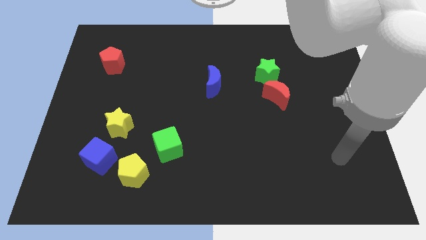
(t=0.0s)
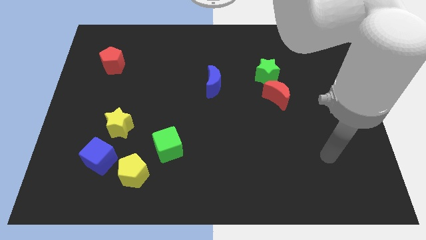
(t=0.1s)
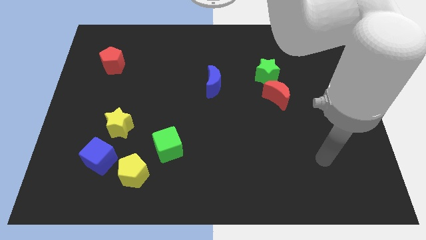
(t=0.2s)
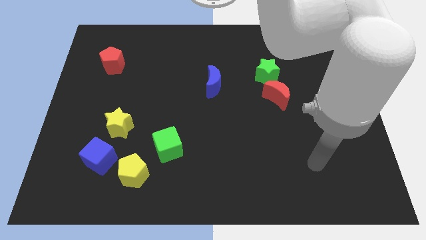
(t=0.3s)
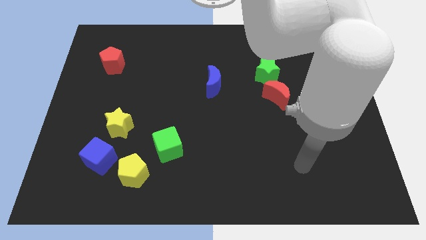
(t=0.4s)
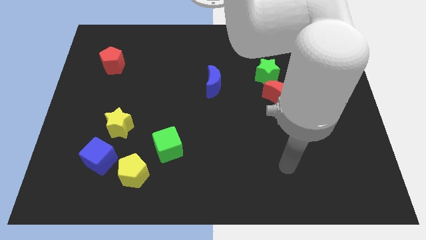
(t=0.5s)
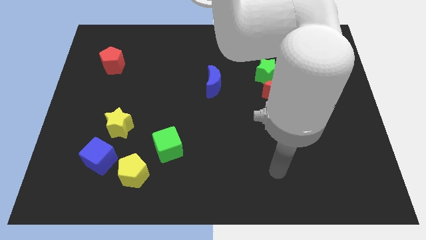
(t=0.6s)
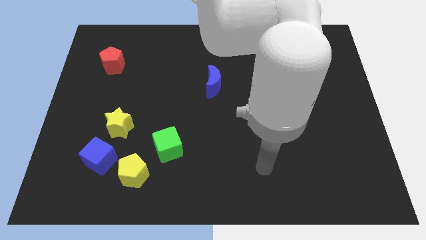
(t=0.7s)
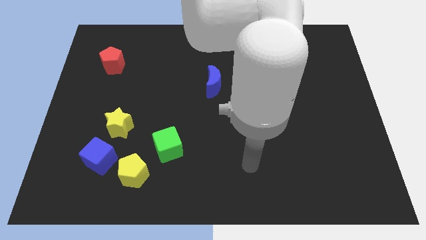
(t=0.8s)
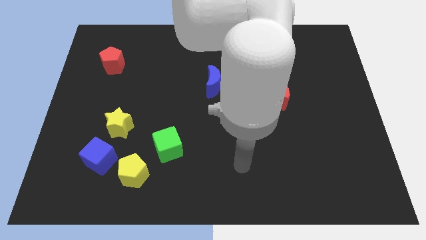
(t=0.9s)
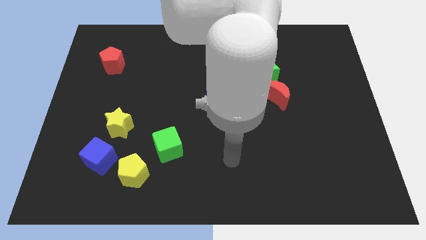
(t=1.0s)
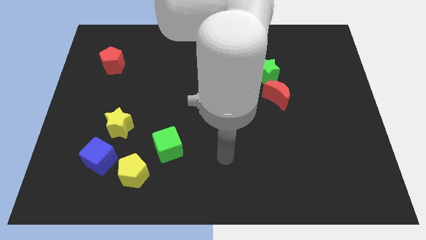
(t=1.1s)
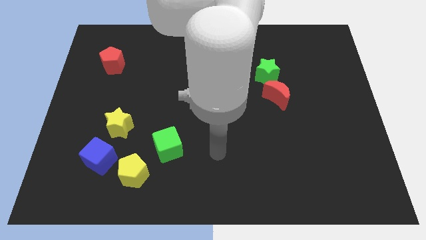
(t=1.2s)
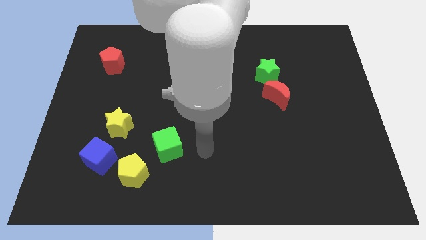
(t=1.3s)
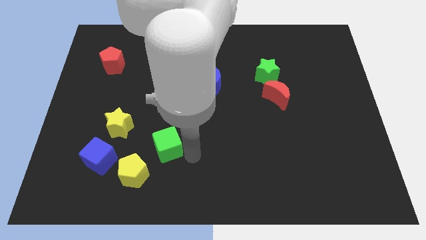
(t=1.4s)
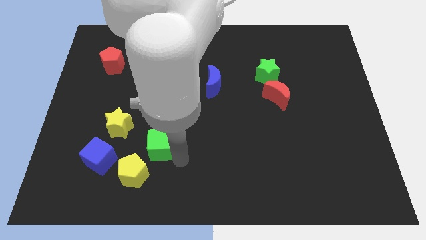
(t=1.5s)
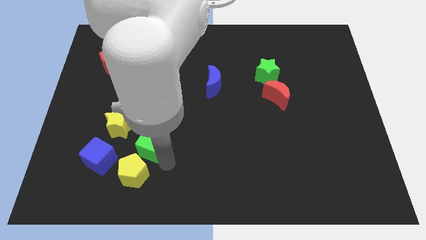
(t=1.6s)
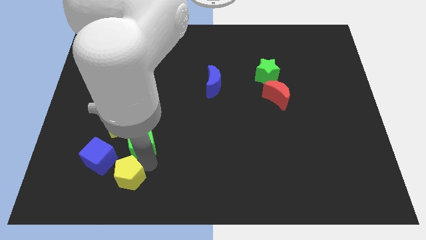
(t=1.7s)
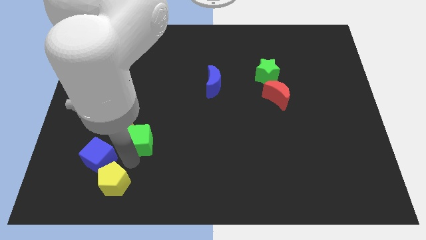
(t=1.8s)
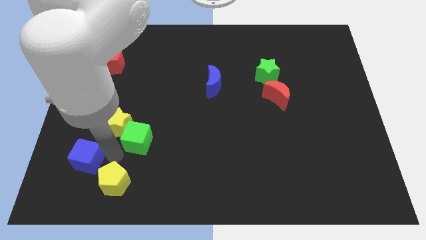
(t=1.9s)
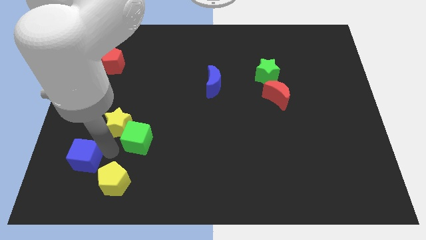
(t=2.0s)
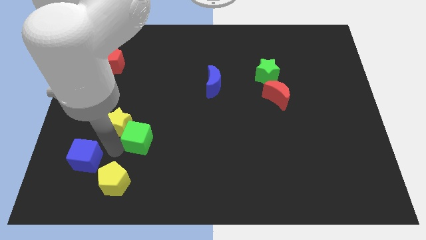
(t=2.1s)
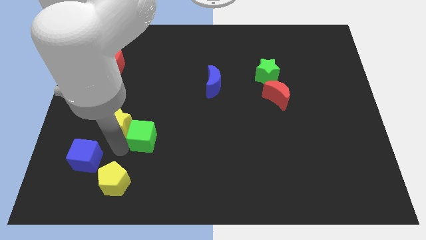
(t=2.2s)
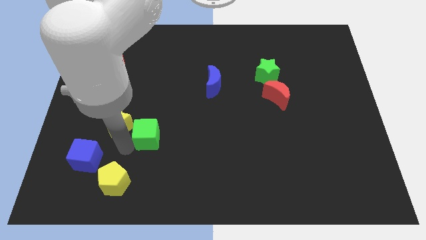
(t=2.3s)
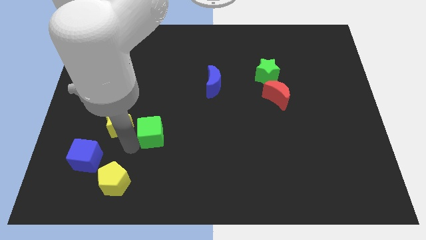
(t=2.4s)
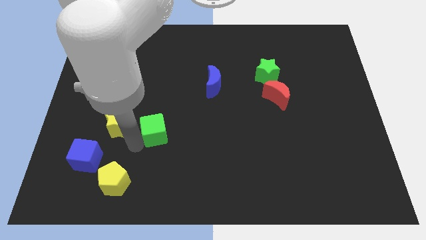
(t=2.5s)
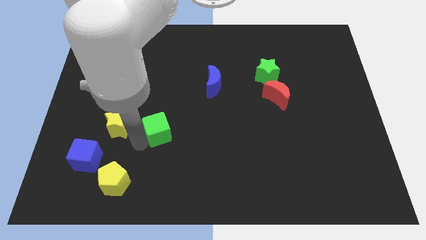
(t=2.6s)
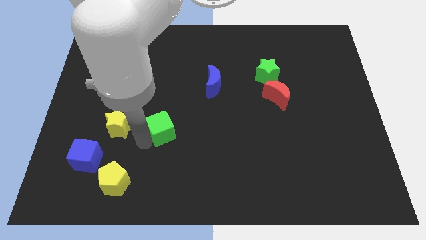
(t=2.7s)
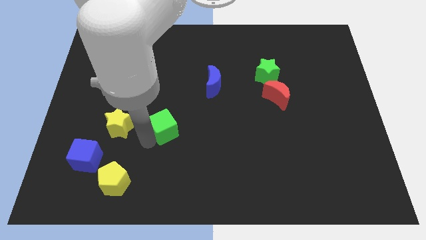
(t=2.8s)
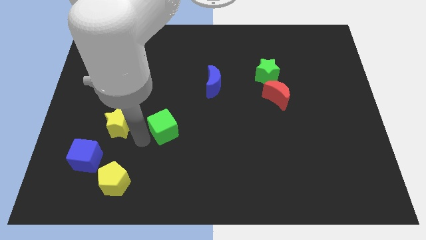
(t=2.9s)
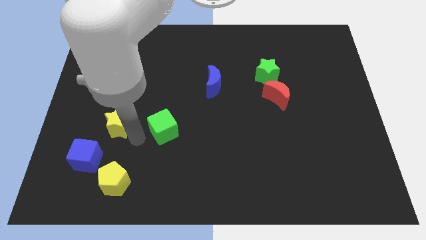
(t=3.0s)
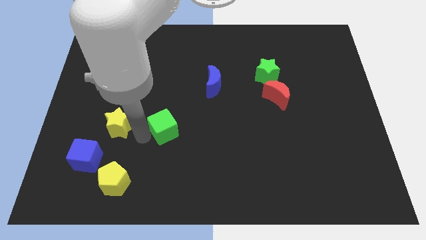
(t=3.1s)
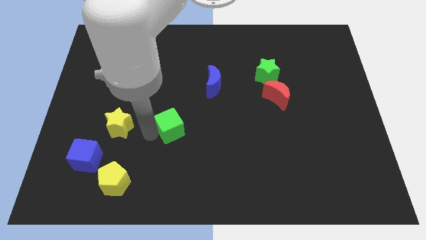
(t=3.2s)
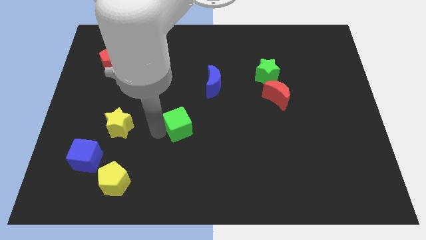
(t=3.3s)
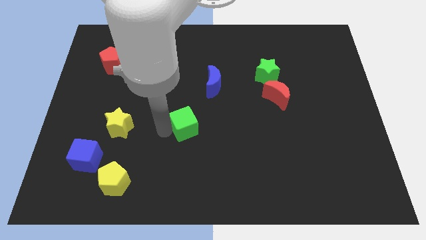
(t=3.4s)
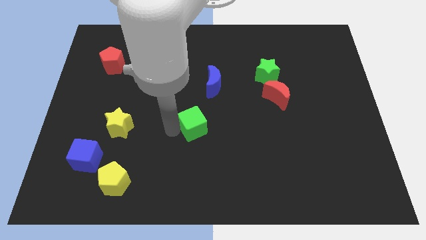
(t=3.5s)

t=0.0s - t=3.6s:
slide the green cube somewhat upwards and right

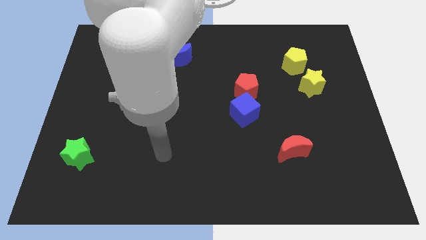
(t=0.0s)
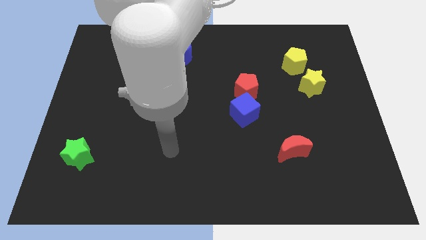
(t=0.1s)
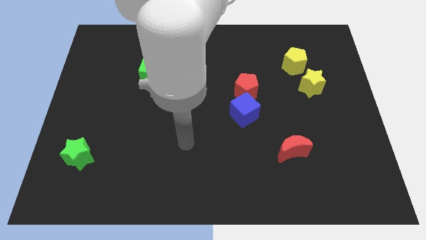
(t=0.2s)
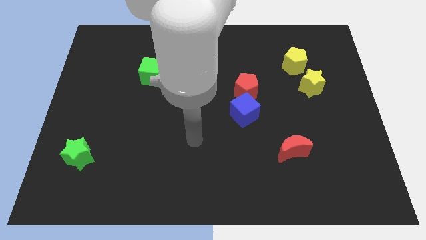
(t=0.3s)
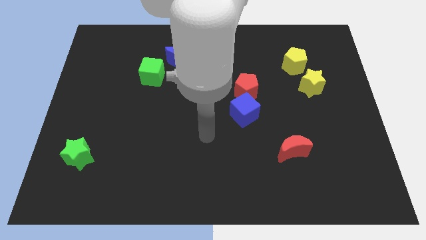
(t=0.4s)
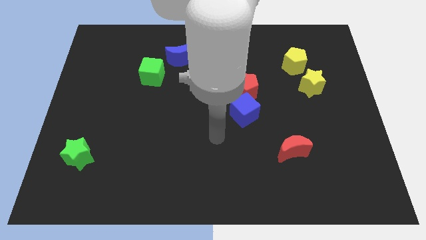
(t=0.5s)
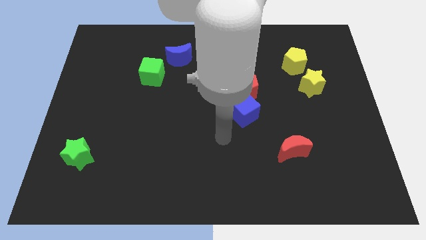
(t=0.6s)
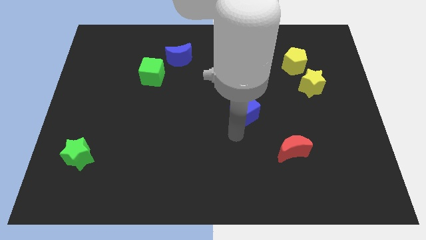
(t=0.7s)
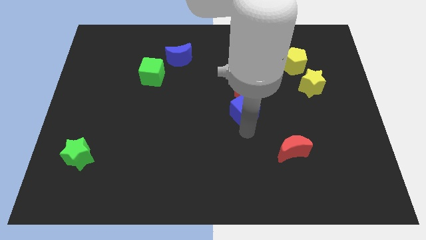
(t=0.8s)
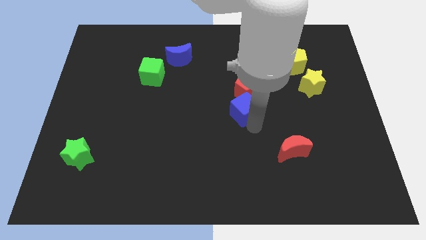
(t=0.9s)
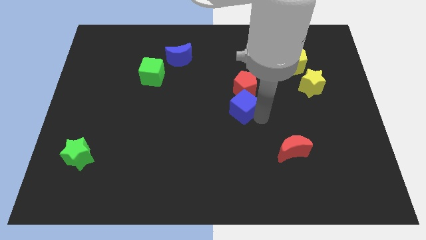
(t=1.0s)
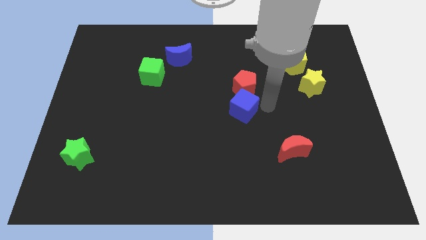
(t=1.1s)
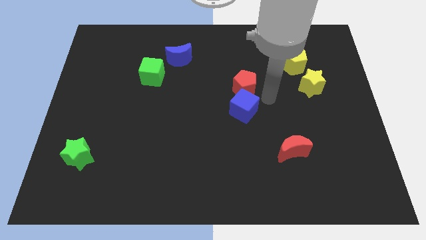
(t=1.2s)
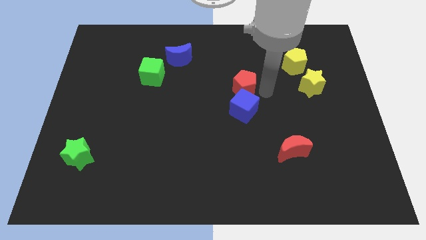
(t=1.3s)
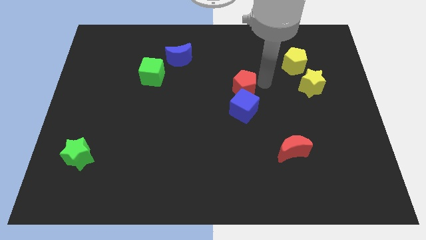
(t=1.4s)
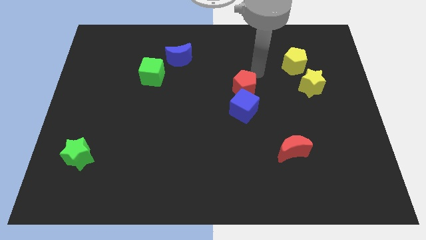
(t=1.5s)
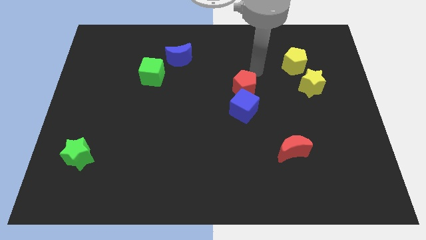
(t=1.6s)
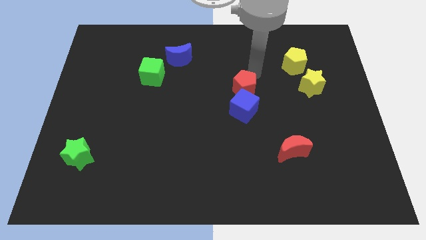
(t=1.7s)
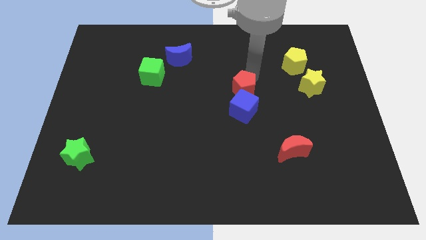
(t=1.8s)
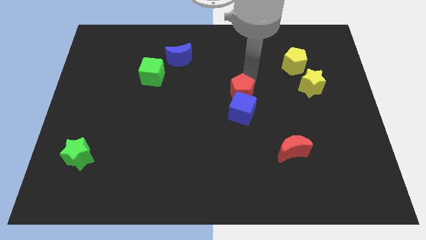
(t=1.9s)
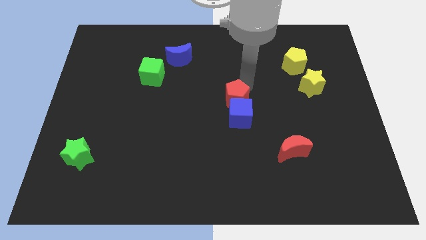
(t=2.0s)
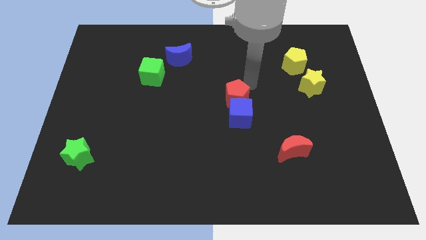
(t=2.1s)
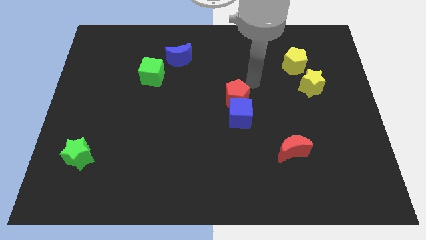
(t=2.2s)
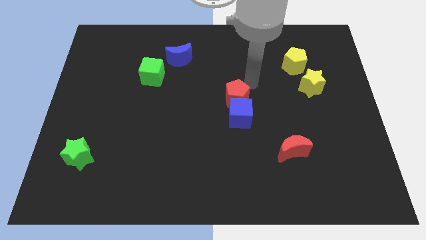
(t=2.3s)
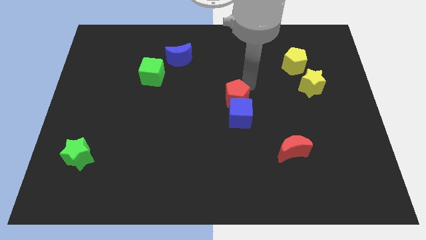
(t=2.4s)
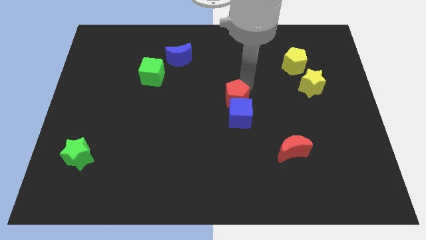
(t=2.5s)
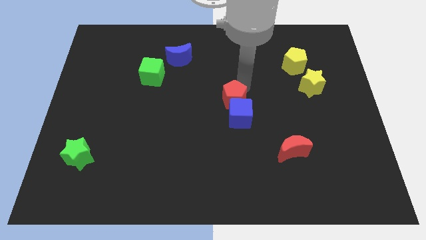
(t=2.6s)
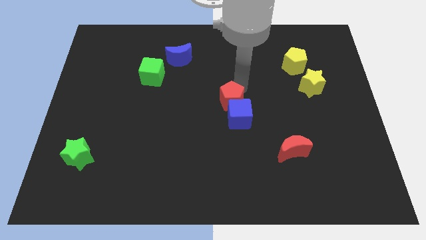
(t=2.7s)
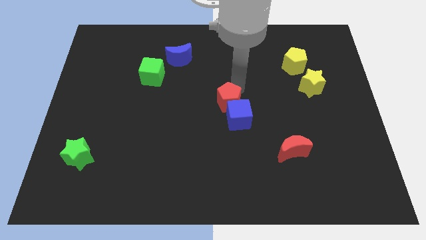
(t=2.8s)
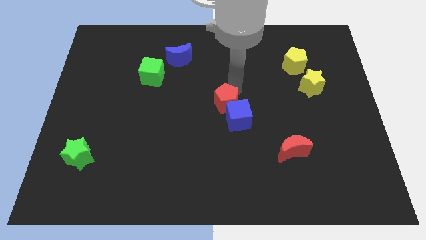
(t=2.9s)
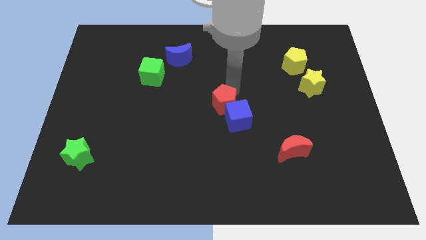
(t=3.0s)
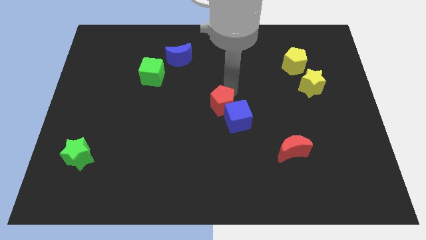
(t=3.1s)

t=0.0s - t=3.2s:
slightly slide the red pentagon down and left

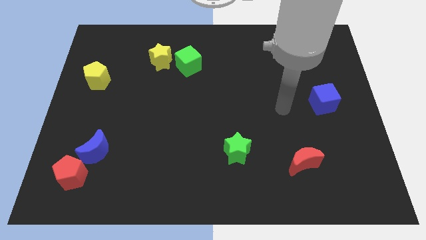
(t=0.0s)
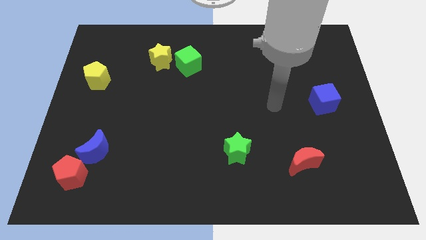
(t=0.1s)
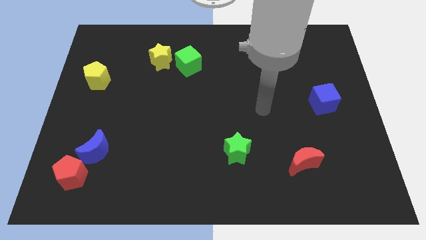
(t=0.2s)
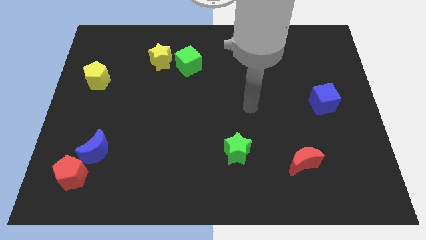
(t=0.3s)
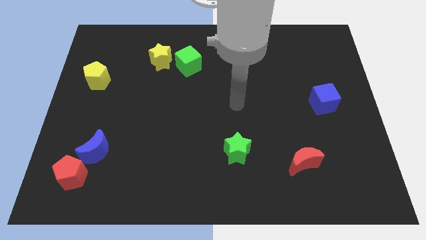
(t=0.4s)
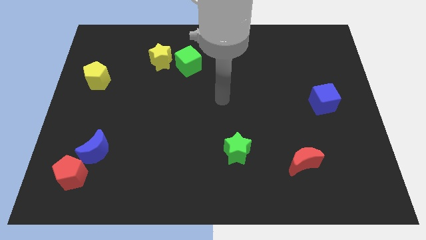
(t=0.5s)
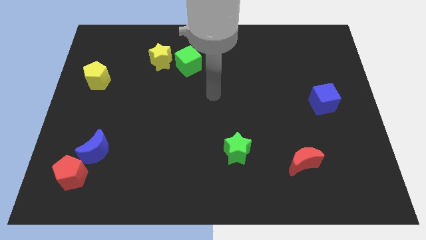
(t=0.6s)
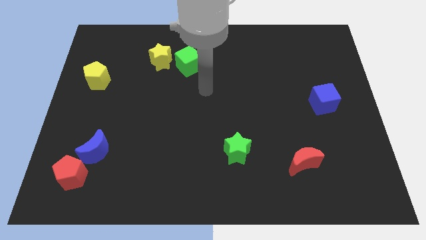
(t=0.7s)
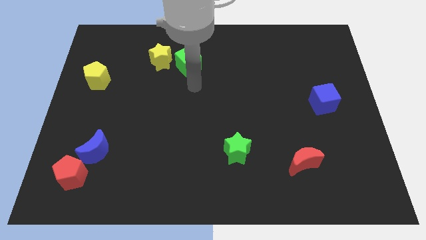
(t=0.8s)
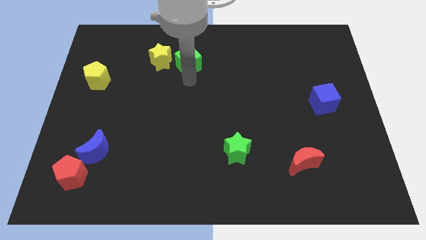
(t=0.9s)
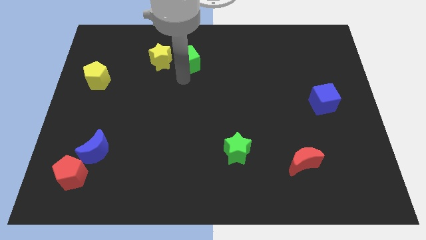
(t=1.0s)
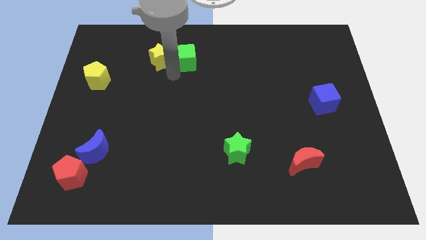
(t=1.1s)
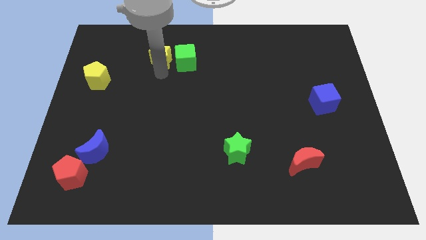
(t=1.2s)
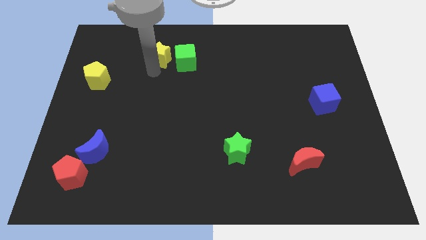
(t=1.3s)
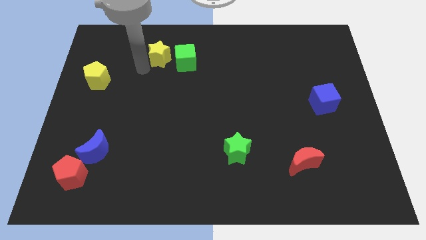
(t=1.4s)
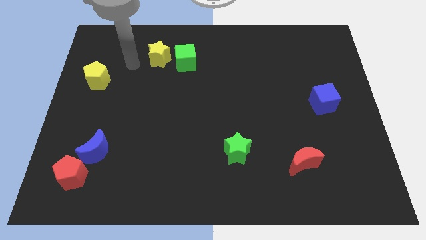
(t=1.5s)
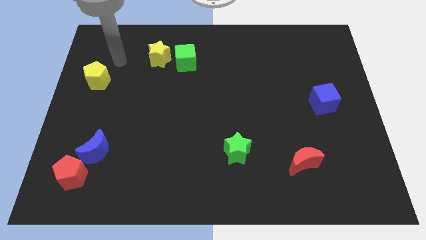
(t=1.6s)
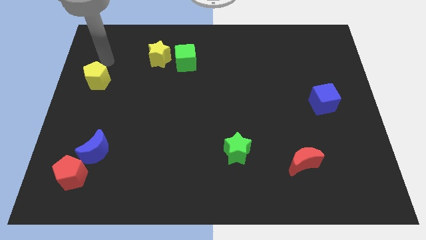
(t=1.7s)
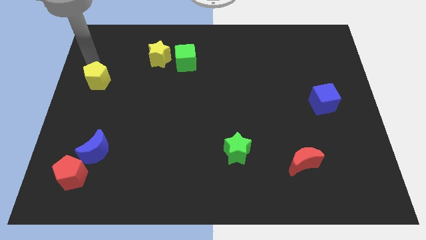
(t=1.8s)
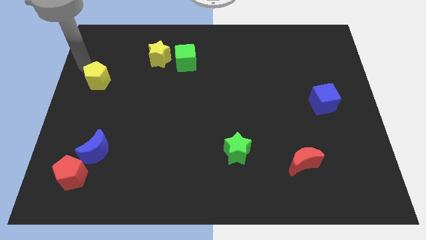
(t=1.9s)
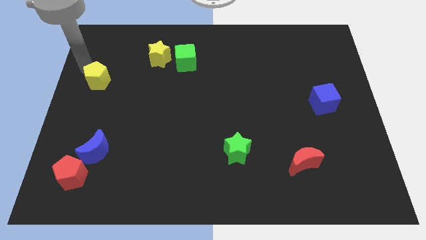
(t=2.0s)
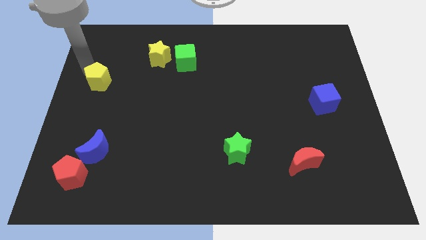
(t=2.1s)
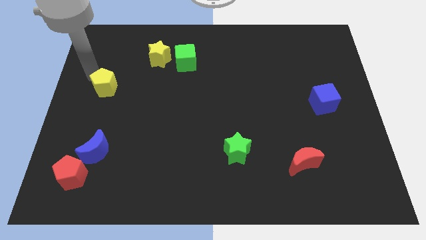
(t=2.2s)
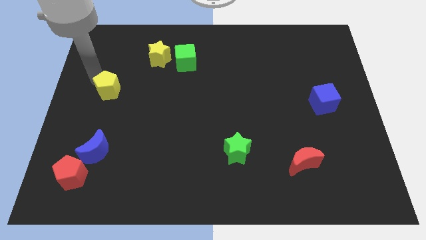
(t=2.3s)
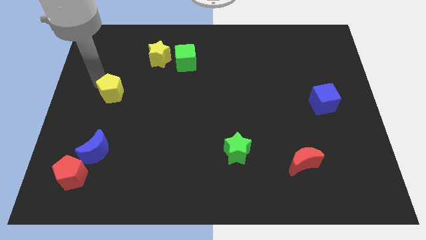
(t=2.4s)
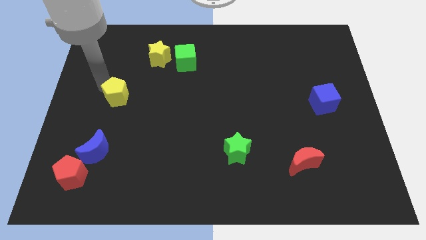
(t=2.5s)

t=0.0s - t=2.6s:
slightly push the yellow pentagon downwards and to the right diagonally
